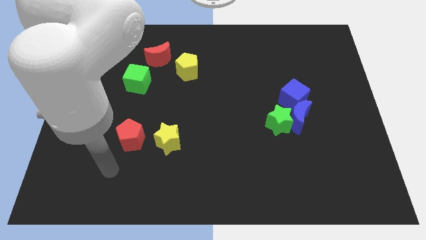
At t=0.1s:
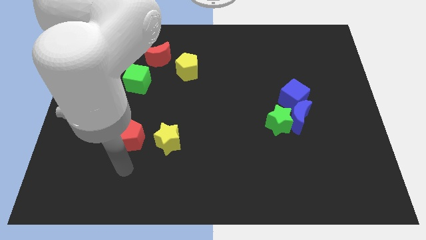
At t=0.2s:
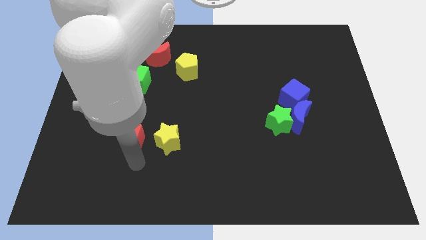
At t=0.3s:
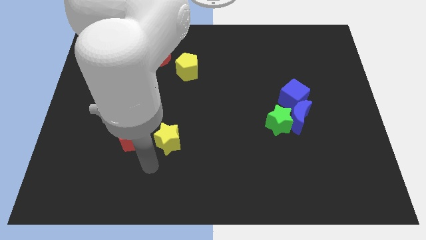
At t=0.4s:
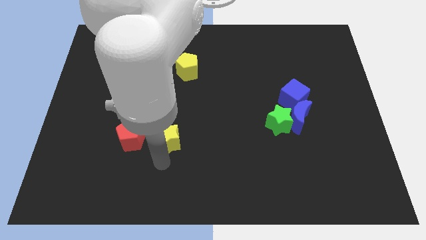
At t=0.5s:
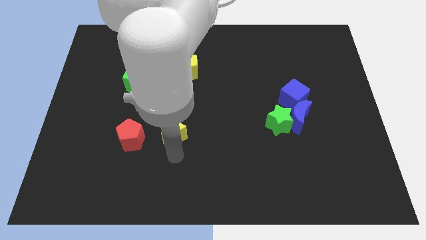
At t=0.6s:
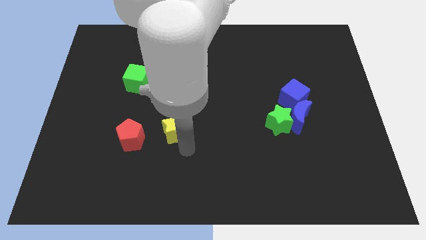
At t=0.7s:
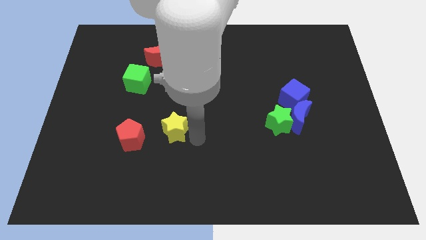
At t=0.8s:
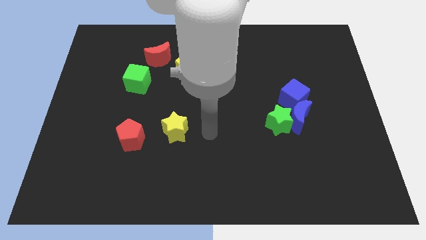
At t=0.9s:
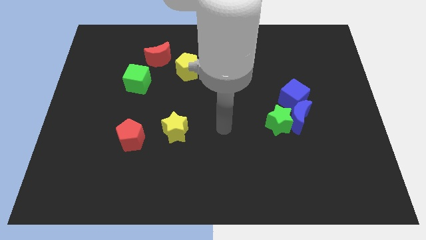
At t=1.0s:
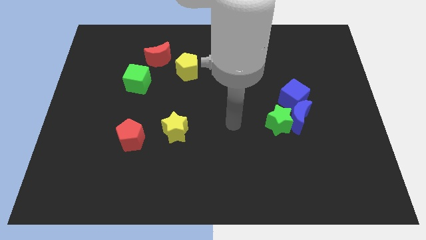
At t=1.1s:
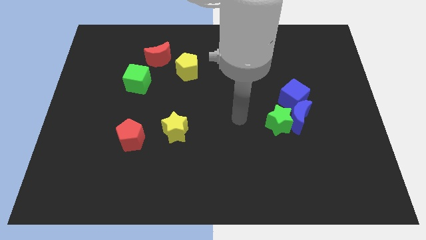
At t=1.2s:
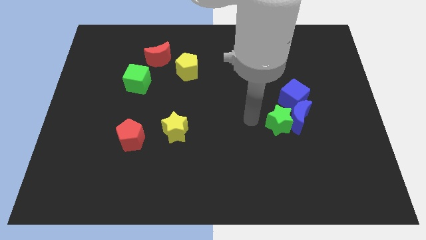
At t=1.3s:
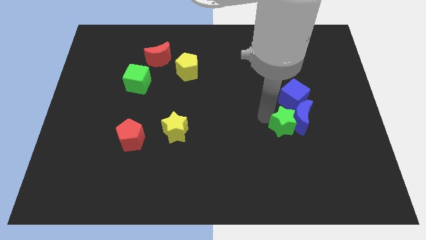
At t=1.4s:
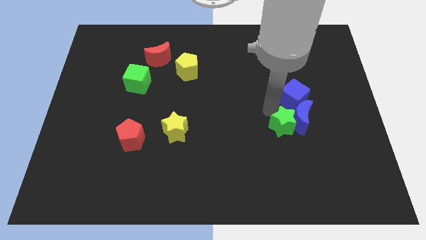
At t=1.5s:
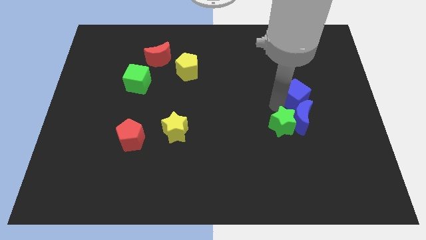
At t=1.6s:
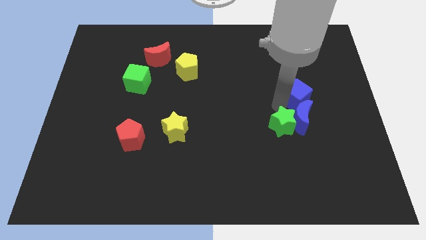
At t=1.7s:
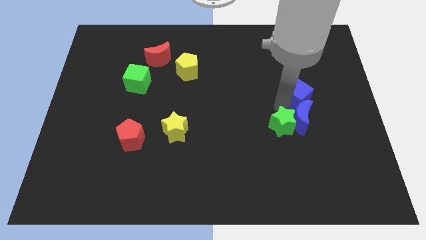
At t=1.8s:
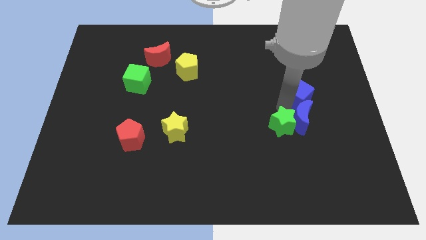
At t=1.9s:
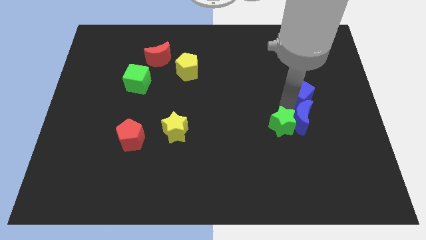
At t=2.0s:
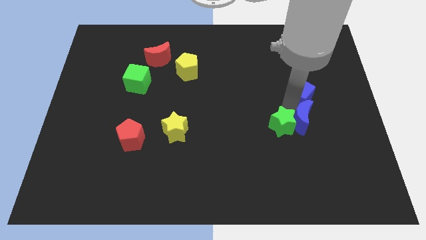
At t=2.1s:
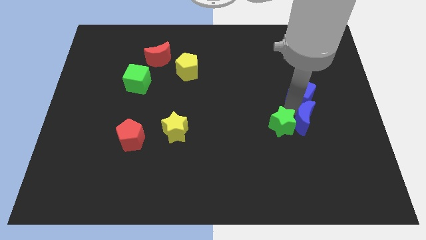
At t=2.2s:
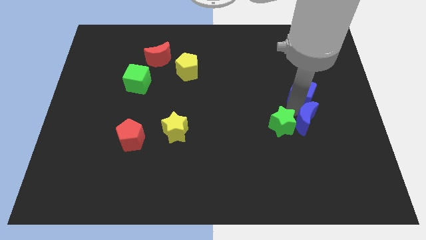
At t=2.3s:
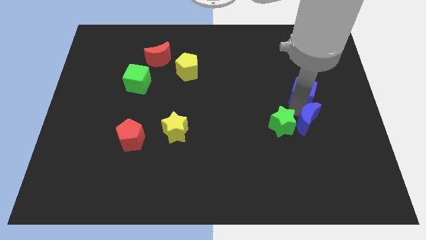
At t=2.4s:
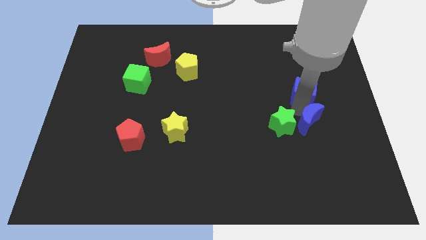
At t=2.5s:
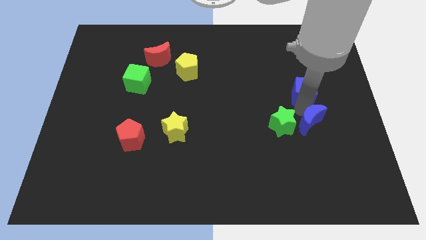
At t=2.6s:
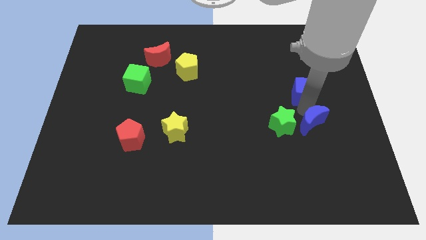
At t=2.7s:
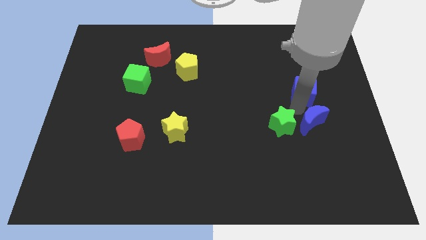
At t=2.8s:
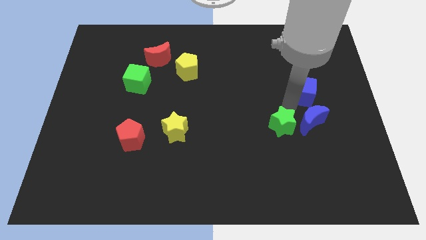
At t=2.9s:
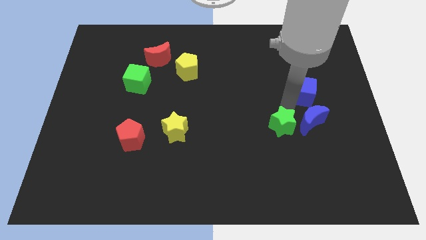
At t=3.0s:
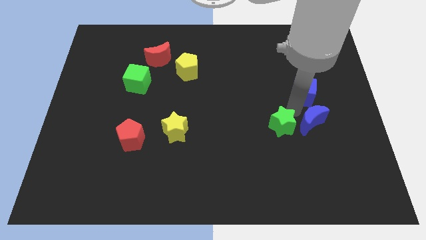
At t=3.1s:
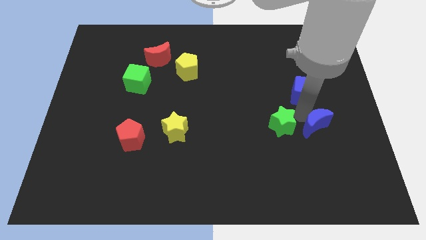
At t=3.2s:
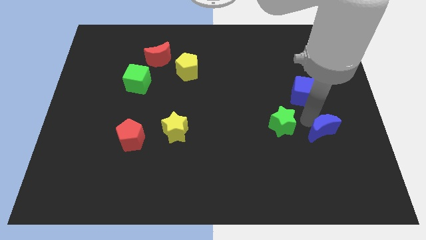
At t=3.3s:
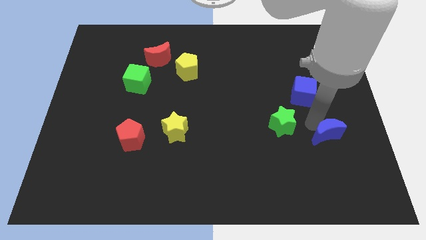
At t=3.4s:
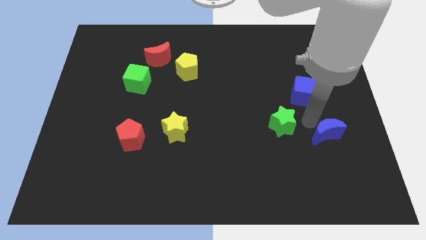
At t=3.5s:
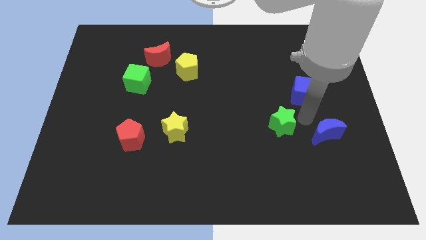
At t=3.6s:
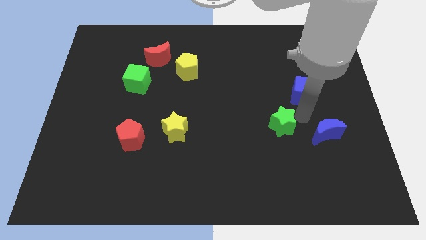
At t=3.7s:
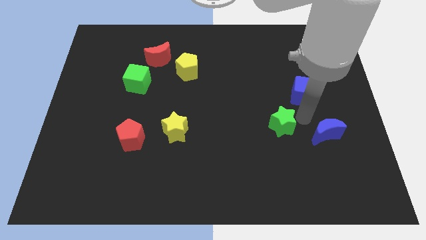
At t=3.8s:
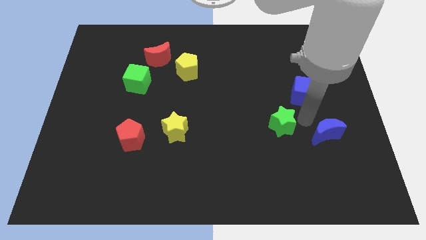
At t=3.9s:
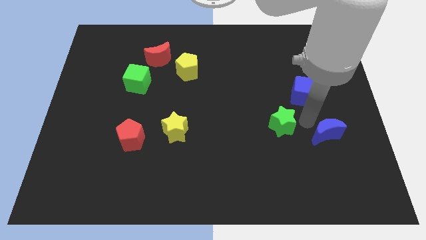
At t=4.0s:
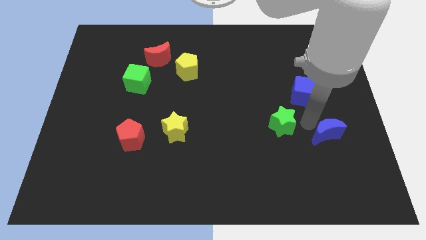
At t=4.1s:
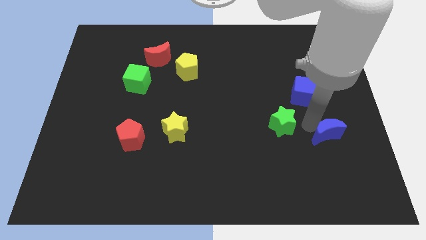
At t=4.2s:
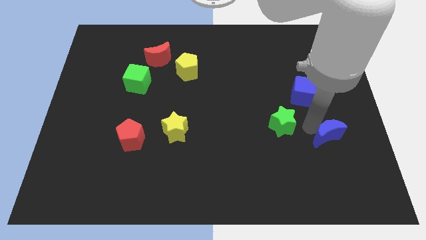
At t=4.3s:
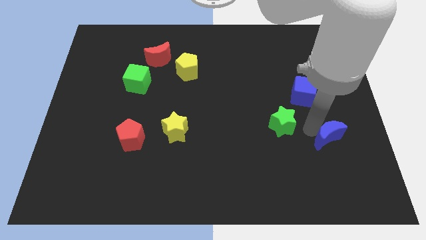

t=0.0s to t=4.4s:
move the blue moon away from the green star and blue cube

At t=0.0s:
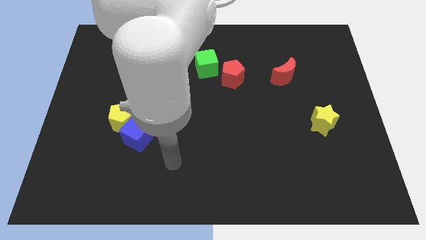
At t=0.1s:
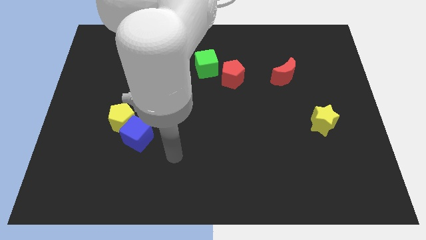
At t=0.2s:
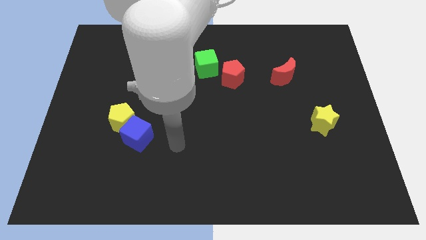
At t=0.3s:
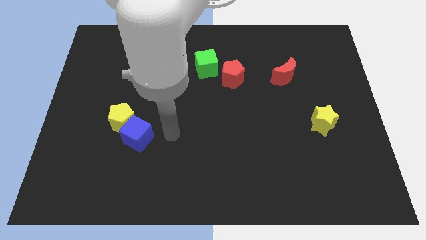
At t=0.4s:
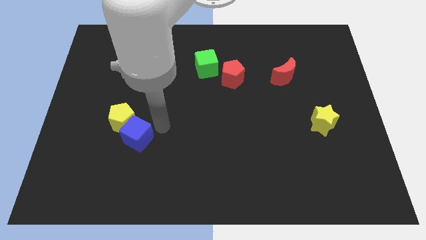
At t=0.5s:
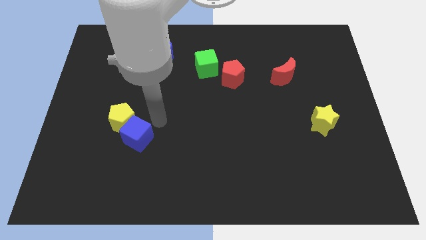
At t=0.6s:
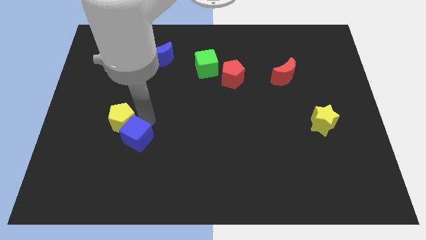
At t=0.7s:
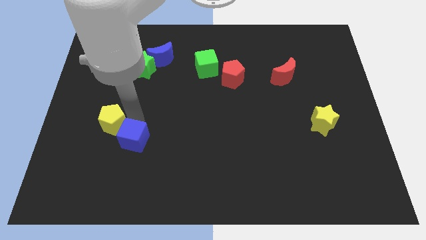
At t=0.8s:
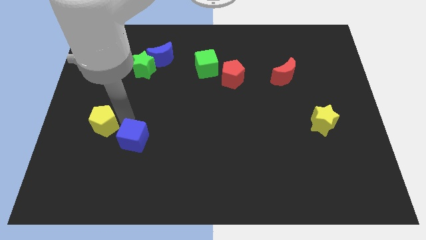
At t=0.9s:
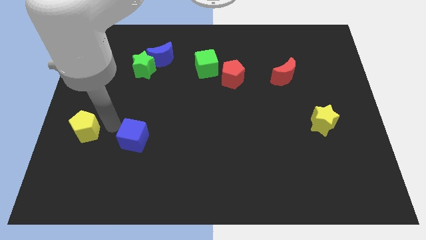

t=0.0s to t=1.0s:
move the blue cube away from the yellow pentagon

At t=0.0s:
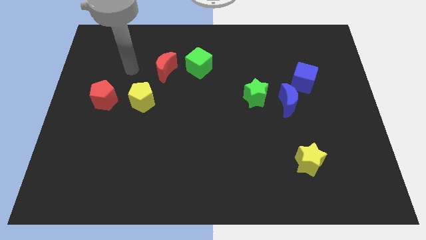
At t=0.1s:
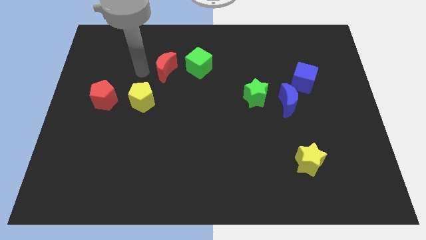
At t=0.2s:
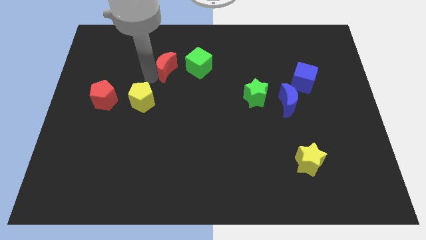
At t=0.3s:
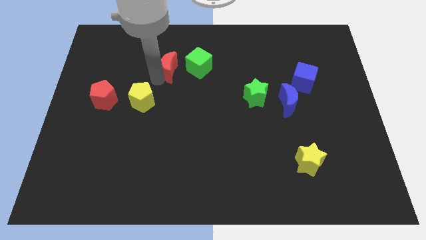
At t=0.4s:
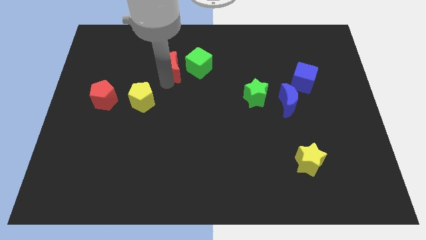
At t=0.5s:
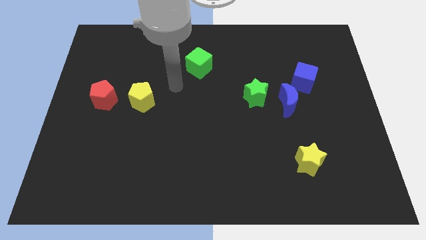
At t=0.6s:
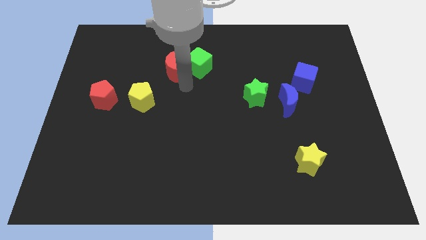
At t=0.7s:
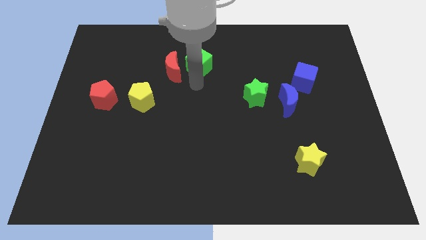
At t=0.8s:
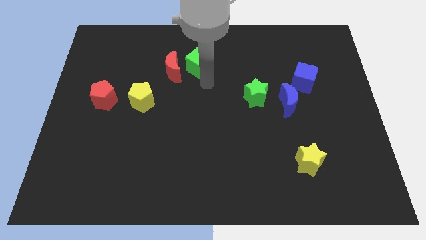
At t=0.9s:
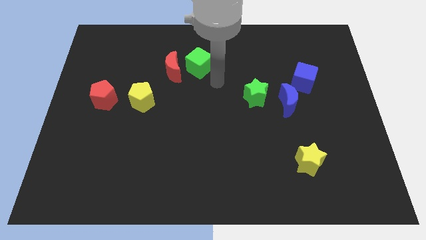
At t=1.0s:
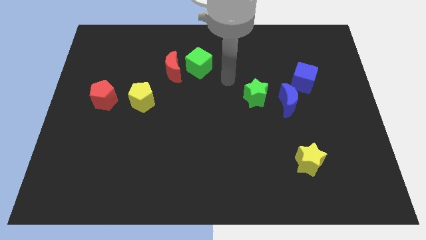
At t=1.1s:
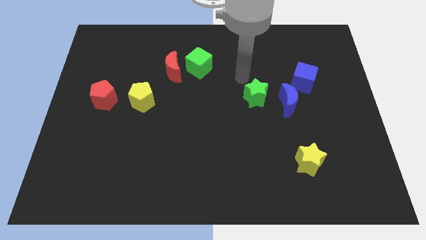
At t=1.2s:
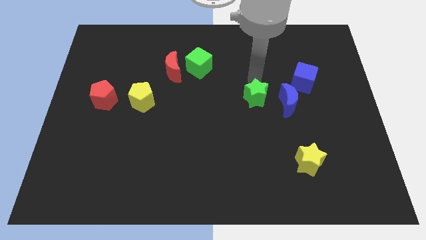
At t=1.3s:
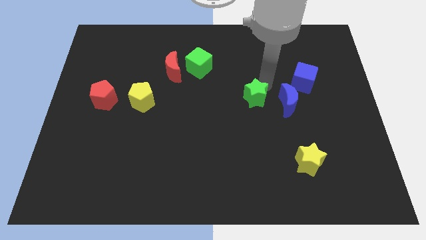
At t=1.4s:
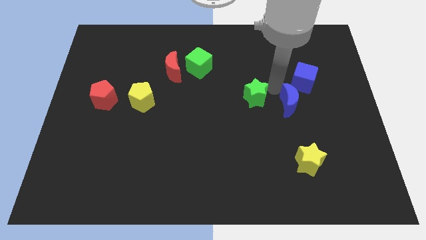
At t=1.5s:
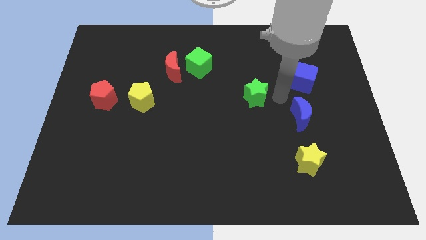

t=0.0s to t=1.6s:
move the green star away from the blue moon

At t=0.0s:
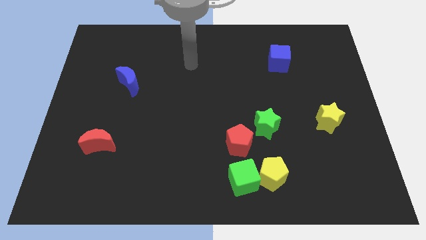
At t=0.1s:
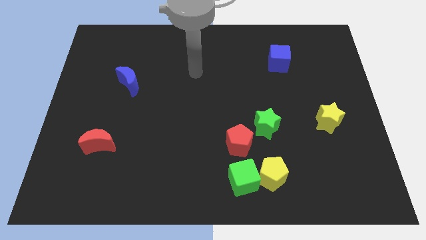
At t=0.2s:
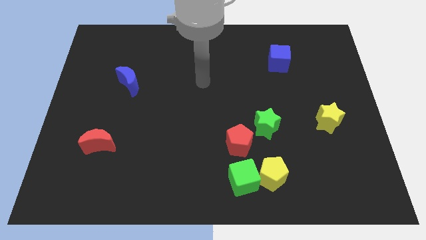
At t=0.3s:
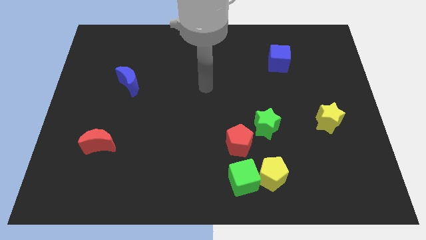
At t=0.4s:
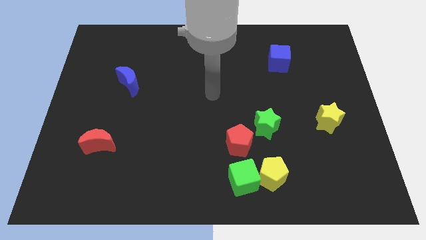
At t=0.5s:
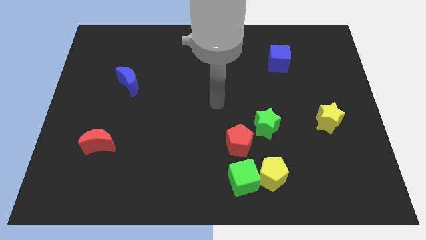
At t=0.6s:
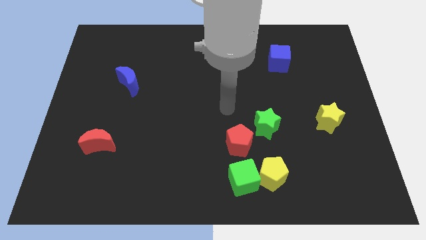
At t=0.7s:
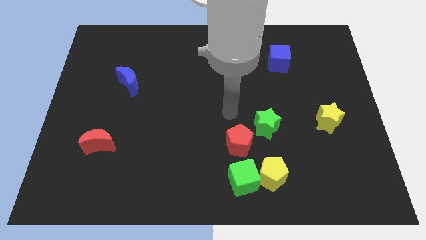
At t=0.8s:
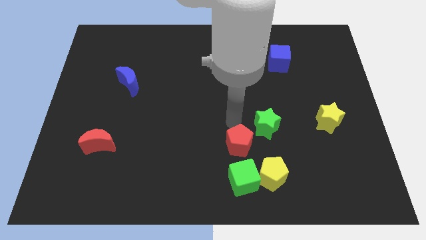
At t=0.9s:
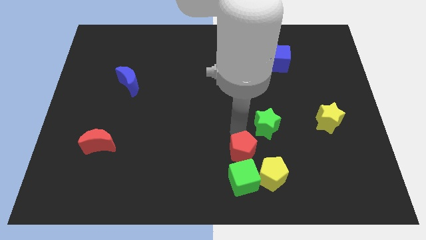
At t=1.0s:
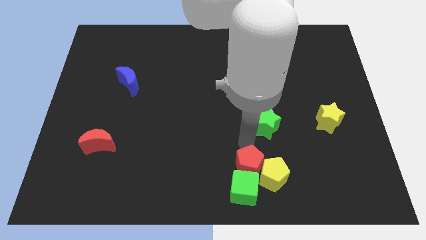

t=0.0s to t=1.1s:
separate the green star from the red pentagon

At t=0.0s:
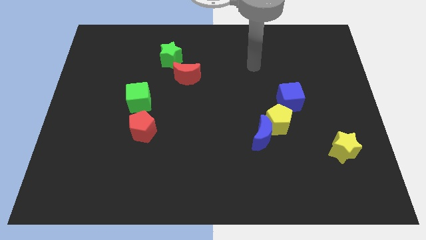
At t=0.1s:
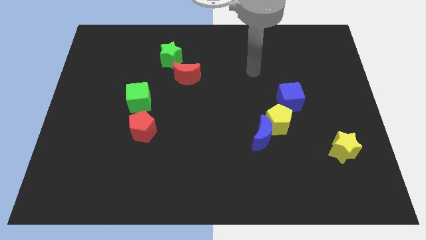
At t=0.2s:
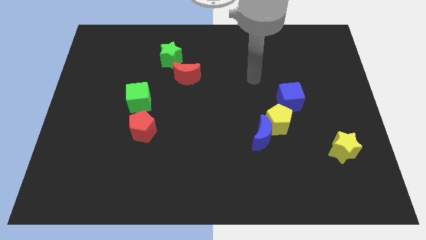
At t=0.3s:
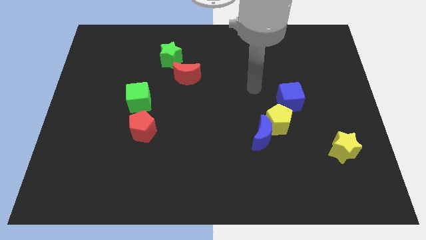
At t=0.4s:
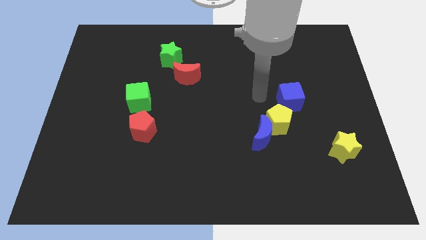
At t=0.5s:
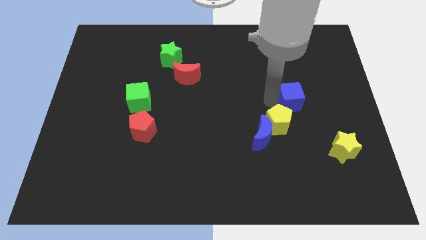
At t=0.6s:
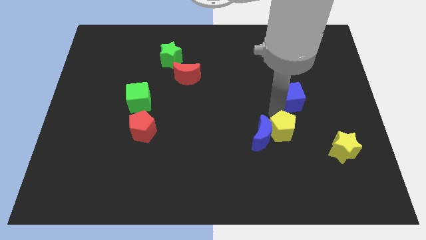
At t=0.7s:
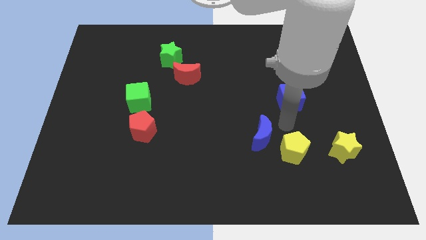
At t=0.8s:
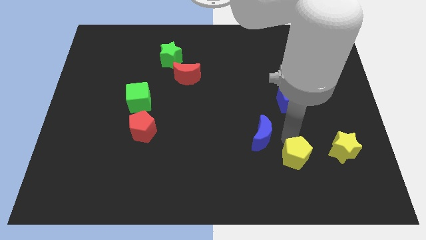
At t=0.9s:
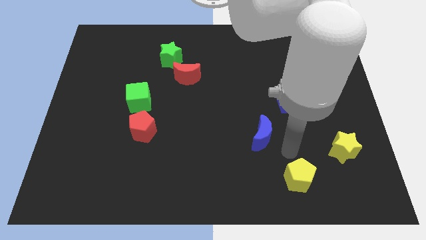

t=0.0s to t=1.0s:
separate the blue moon from the yellow pentagon

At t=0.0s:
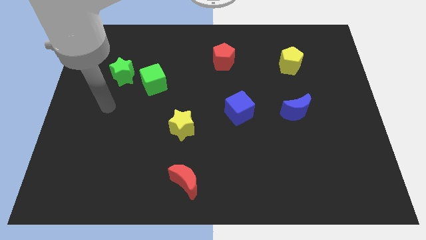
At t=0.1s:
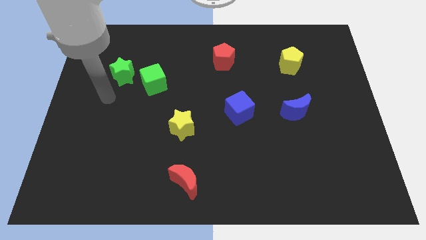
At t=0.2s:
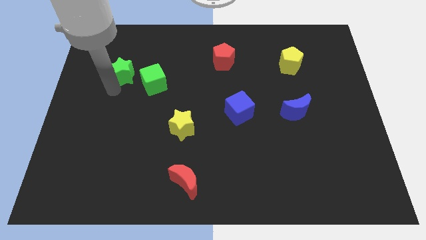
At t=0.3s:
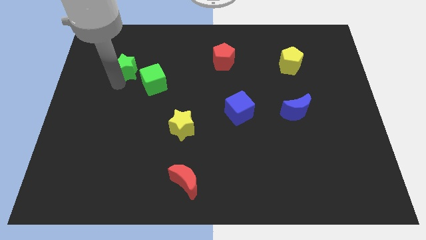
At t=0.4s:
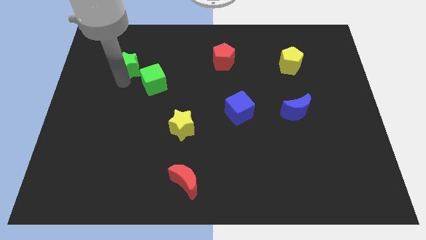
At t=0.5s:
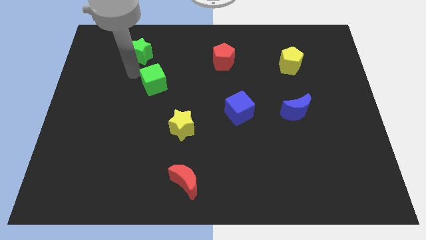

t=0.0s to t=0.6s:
separate the green cube from the green star
